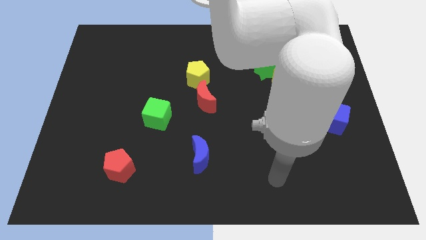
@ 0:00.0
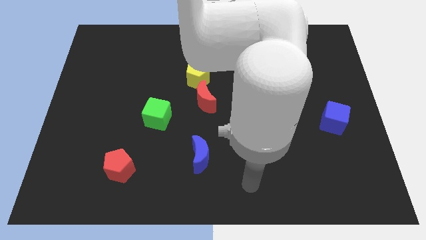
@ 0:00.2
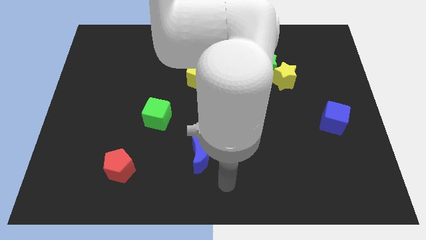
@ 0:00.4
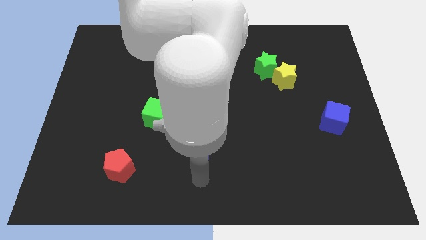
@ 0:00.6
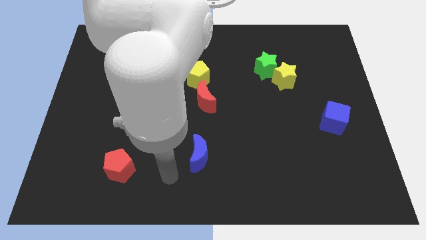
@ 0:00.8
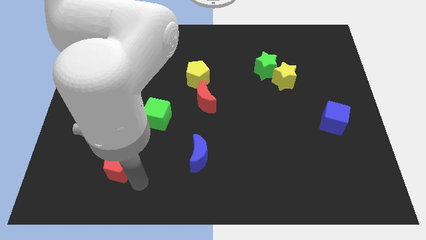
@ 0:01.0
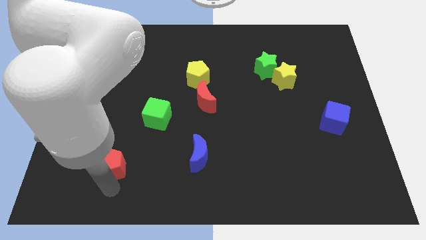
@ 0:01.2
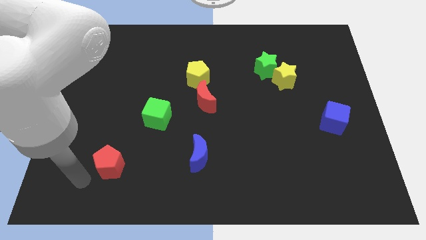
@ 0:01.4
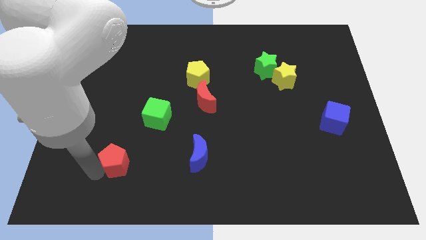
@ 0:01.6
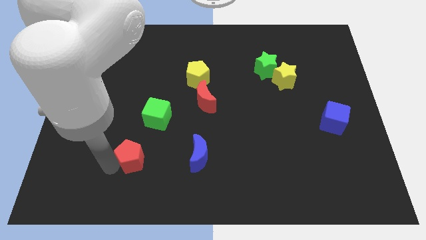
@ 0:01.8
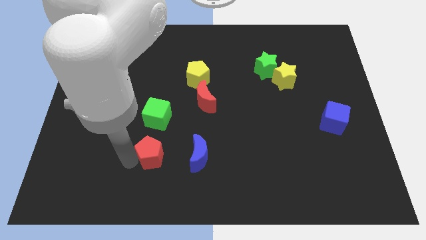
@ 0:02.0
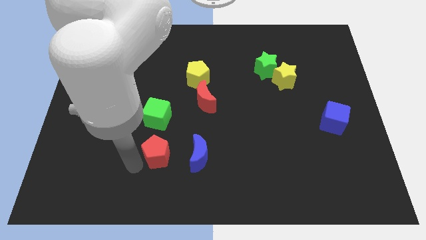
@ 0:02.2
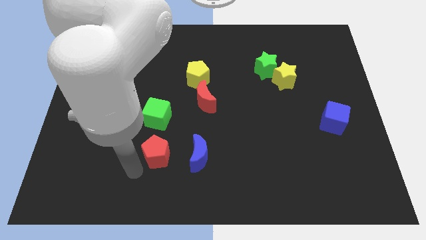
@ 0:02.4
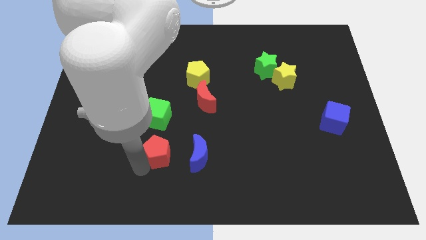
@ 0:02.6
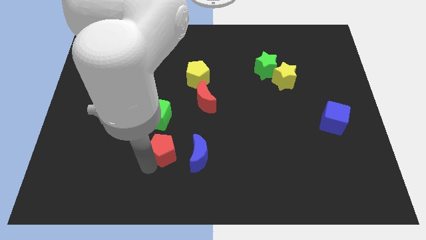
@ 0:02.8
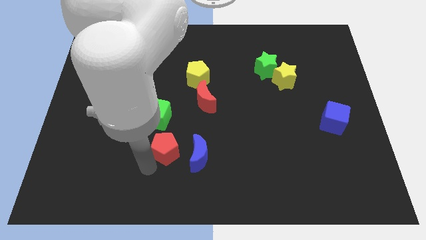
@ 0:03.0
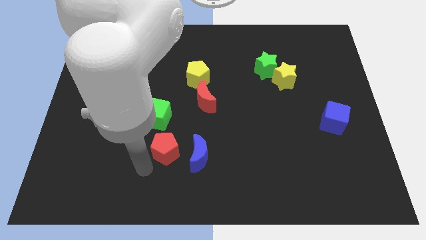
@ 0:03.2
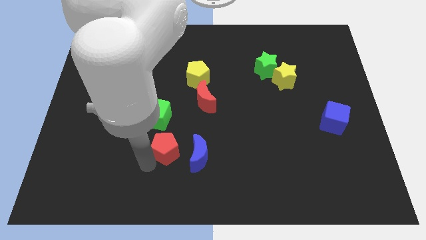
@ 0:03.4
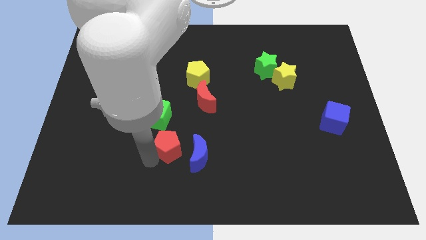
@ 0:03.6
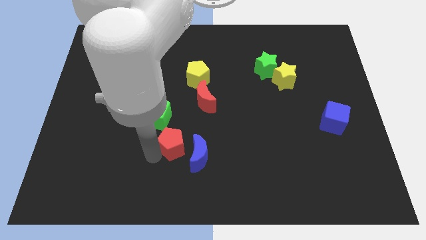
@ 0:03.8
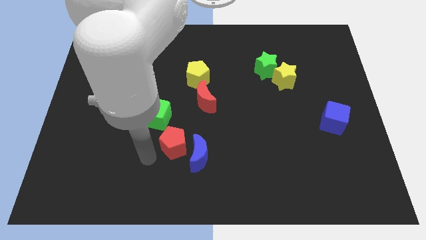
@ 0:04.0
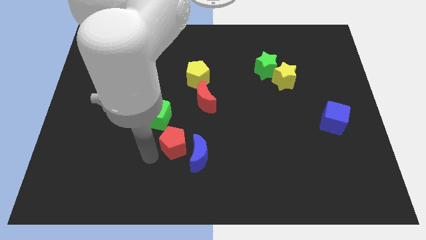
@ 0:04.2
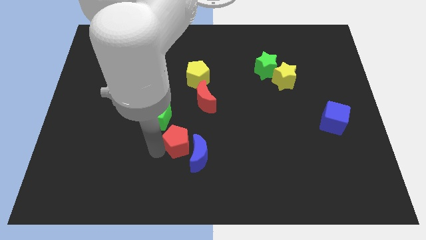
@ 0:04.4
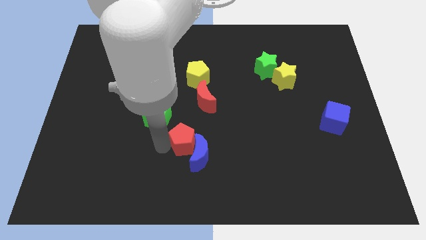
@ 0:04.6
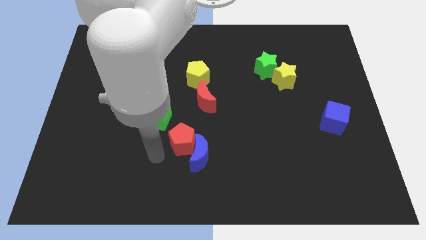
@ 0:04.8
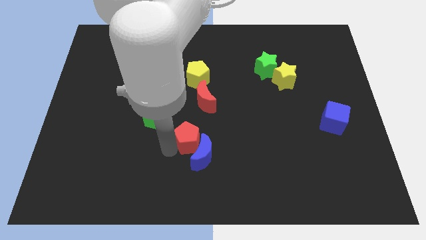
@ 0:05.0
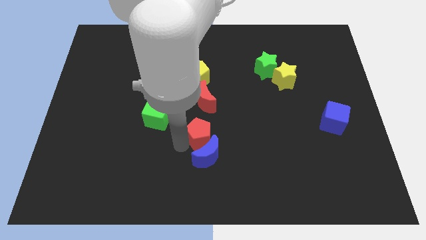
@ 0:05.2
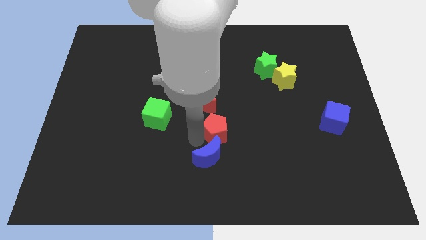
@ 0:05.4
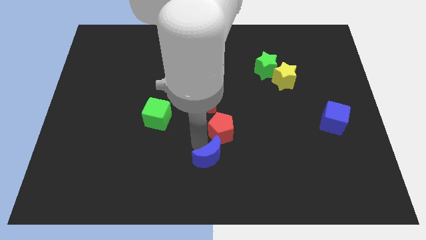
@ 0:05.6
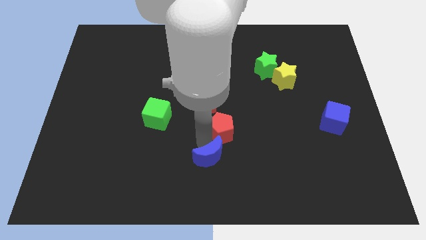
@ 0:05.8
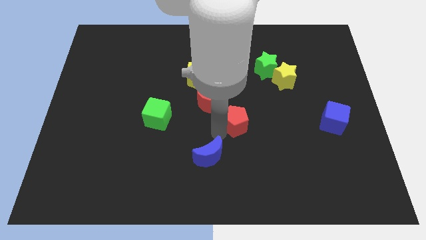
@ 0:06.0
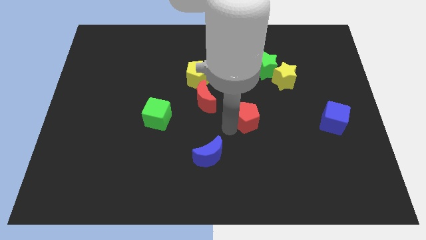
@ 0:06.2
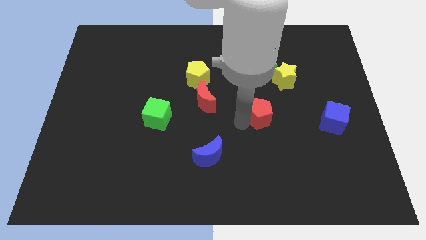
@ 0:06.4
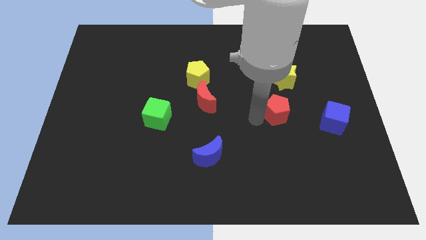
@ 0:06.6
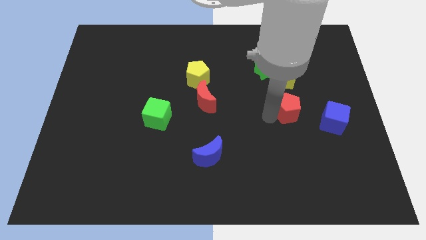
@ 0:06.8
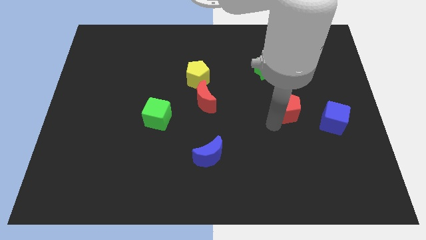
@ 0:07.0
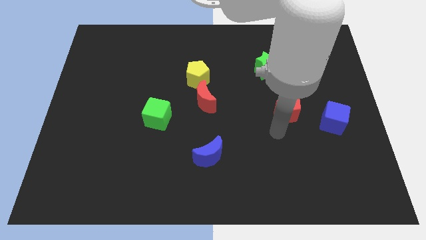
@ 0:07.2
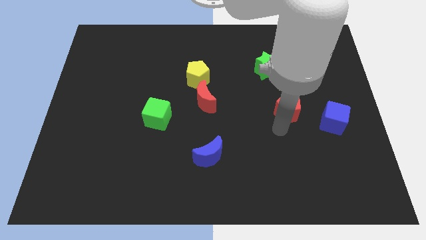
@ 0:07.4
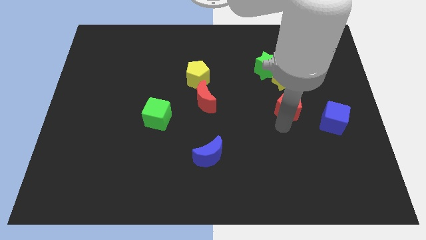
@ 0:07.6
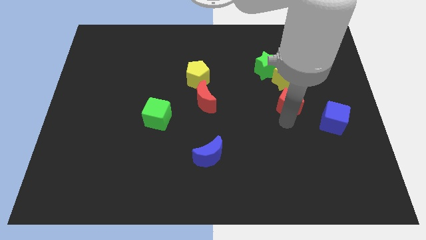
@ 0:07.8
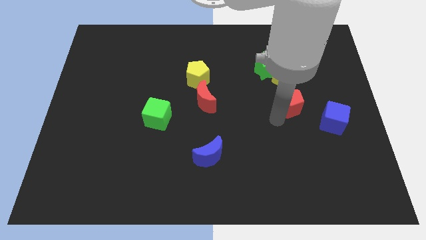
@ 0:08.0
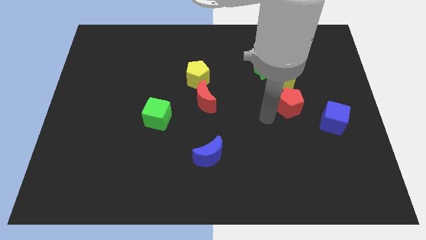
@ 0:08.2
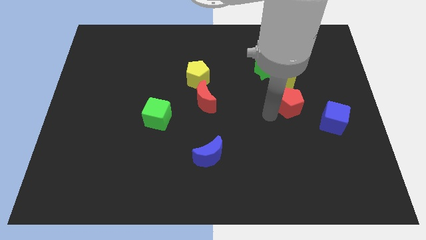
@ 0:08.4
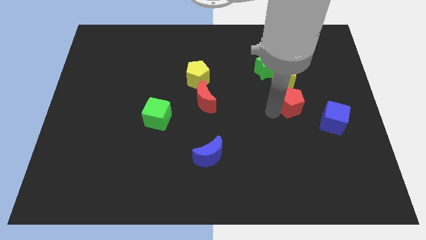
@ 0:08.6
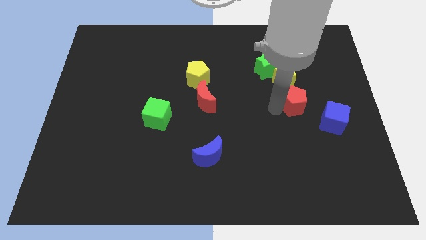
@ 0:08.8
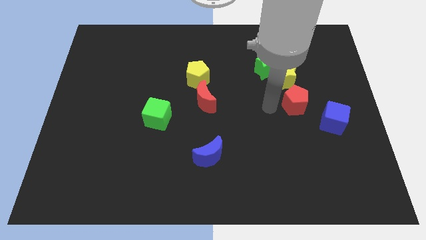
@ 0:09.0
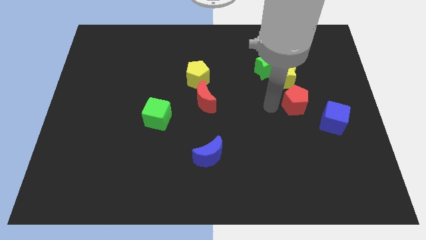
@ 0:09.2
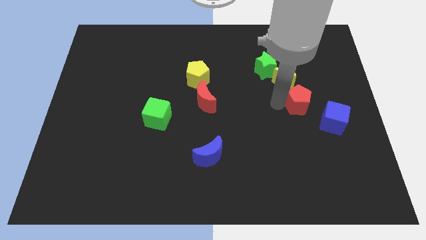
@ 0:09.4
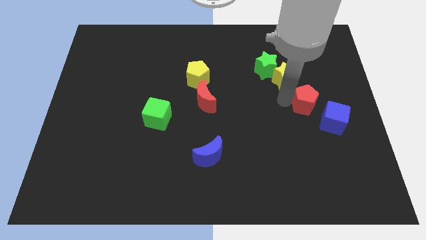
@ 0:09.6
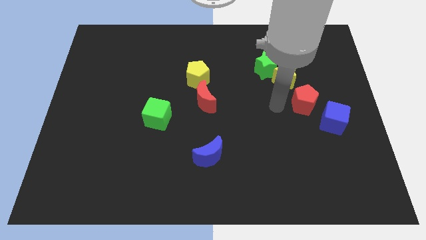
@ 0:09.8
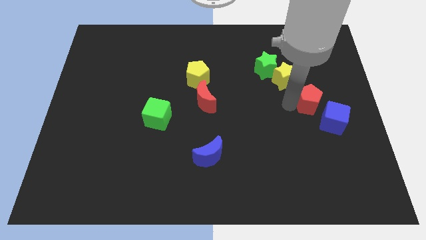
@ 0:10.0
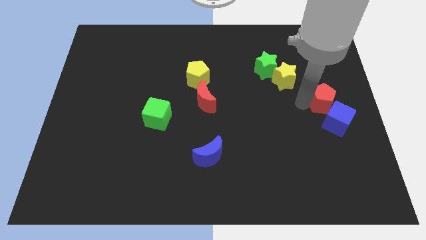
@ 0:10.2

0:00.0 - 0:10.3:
put the red pentagon to the right side
